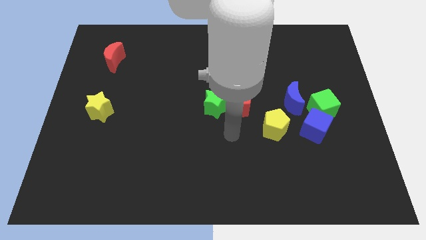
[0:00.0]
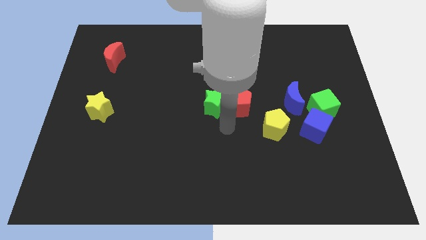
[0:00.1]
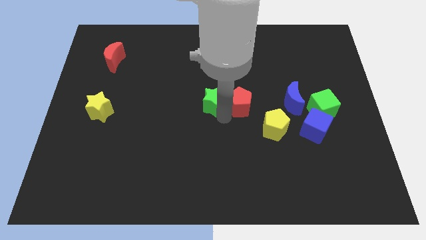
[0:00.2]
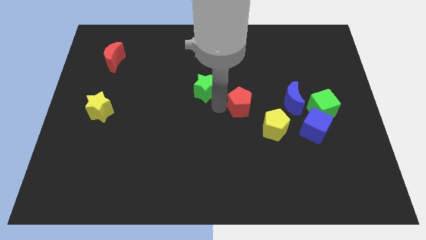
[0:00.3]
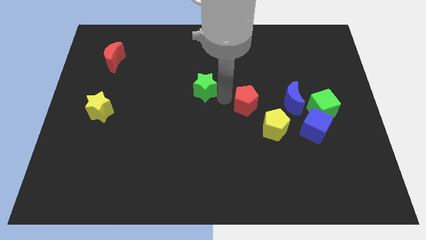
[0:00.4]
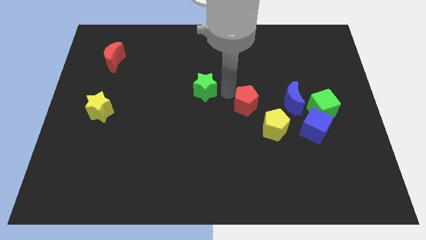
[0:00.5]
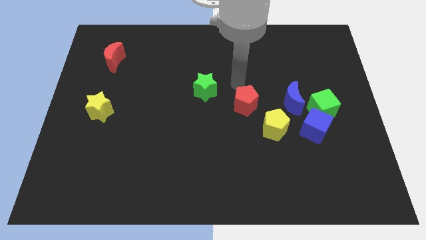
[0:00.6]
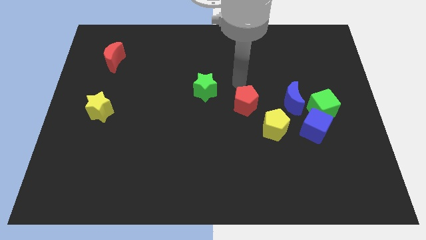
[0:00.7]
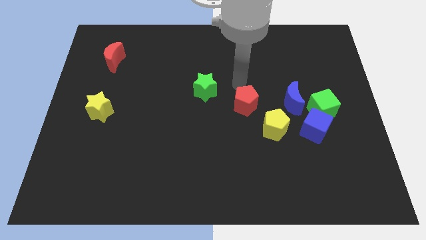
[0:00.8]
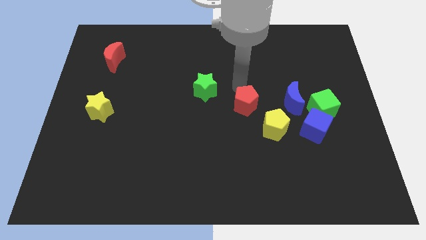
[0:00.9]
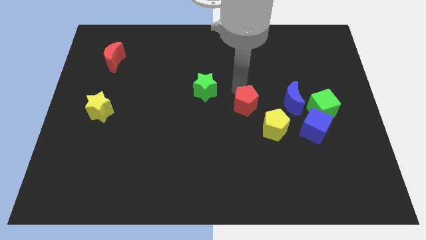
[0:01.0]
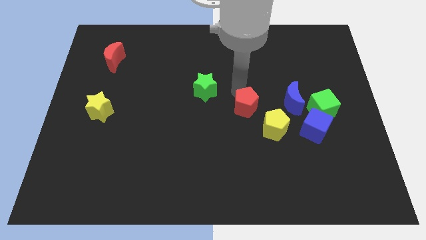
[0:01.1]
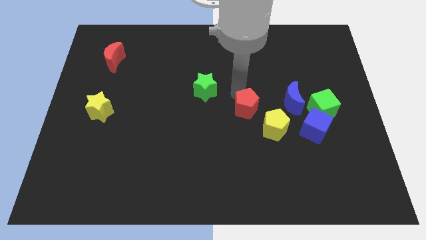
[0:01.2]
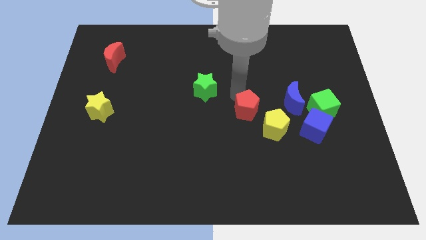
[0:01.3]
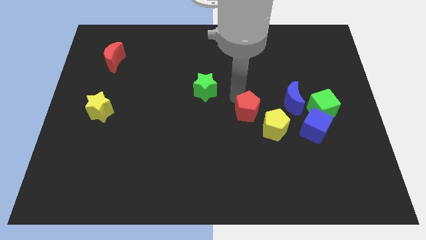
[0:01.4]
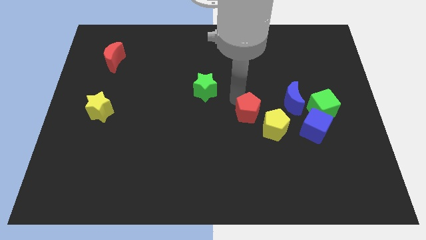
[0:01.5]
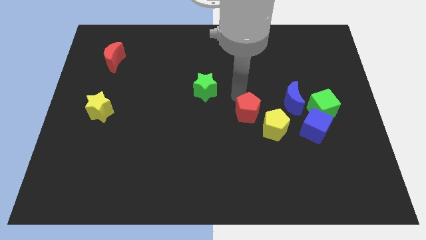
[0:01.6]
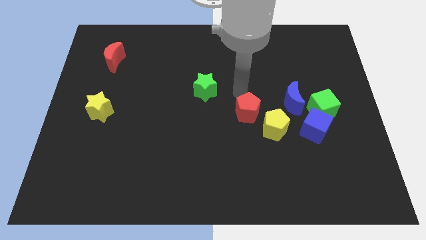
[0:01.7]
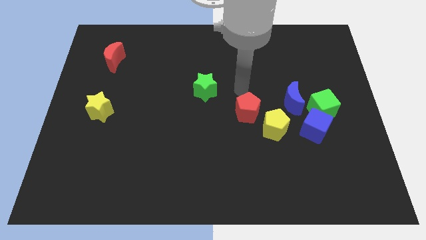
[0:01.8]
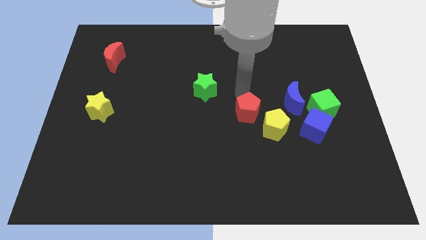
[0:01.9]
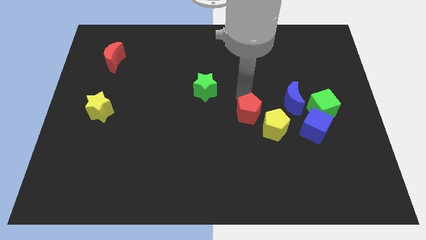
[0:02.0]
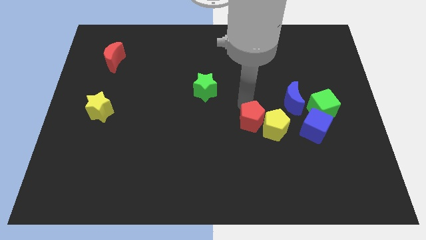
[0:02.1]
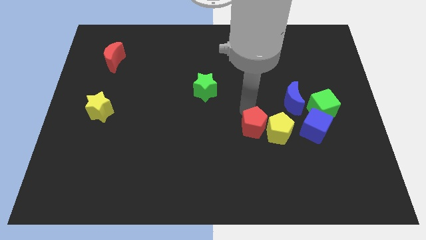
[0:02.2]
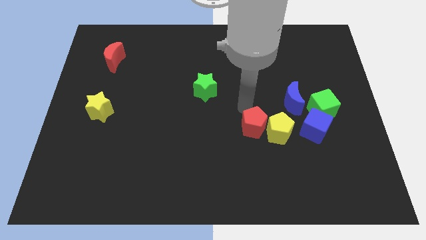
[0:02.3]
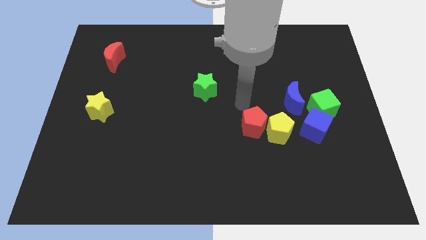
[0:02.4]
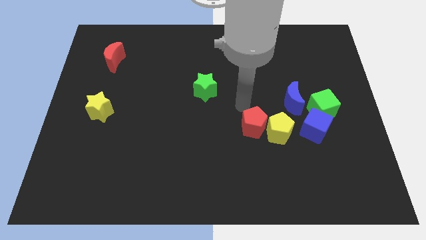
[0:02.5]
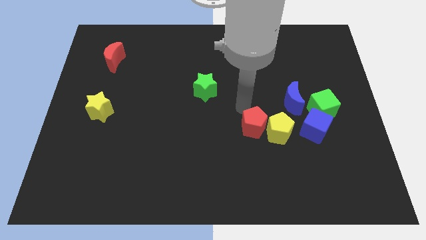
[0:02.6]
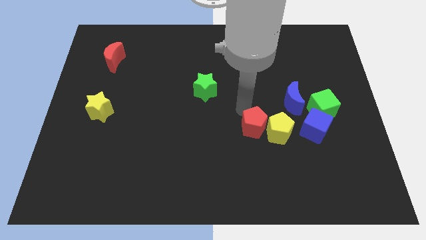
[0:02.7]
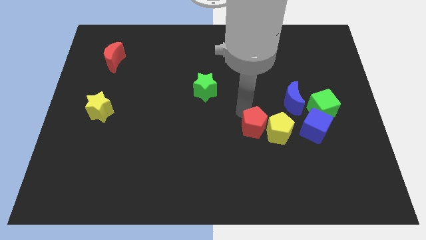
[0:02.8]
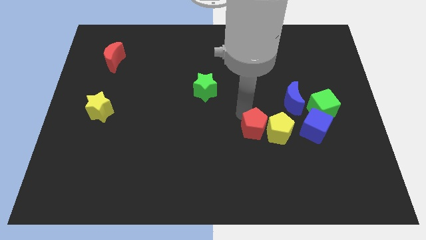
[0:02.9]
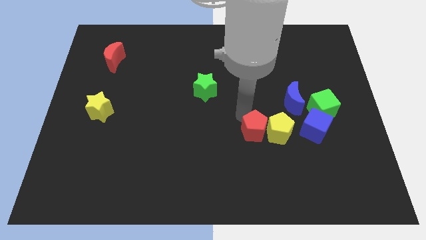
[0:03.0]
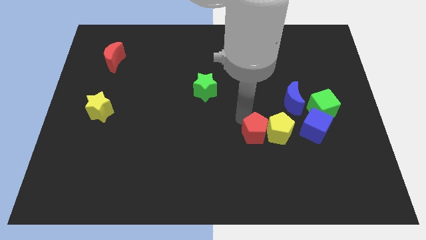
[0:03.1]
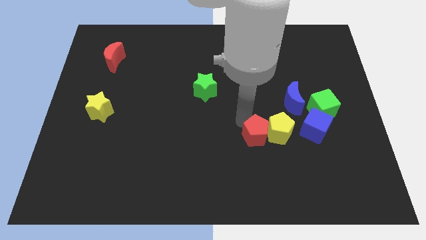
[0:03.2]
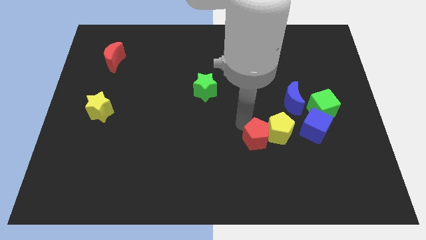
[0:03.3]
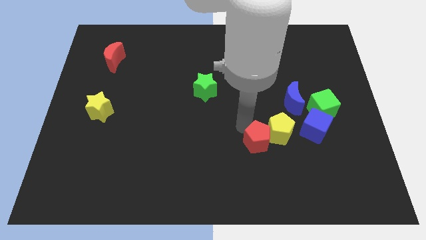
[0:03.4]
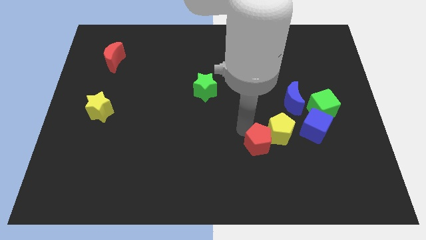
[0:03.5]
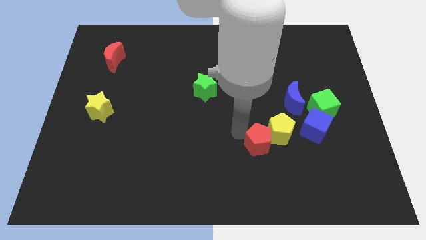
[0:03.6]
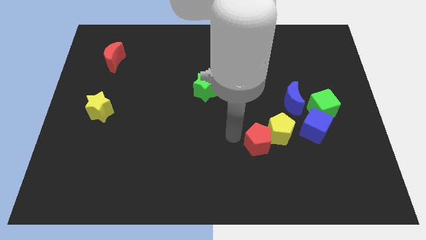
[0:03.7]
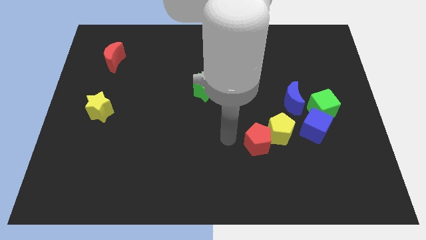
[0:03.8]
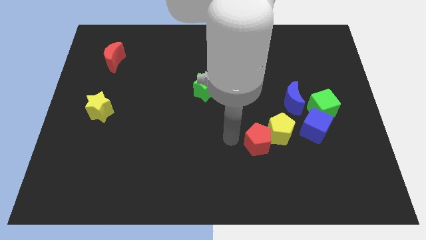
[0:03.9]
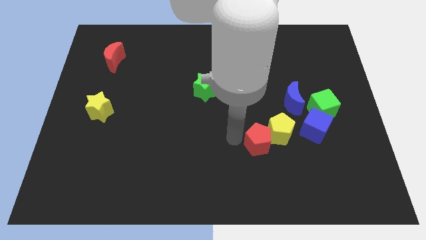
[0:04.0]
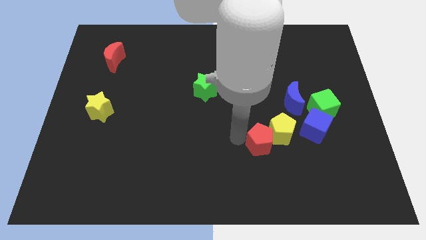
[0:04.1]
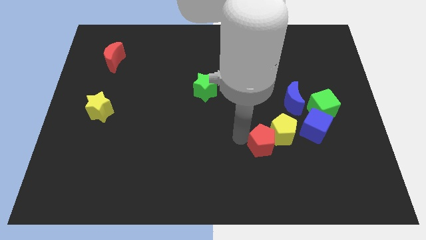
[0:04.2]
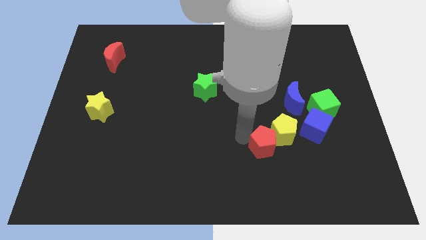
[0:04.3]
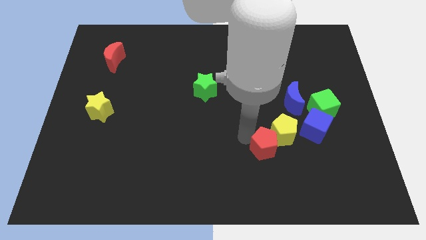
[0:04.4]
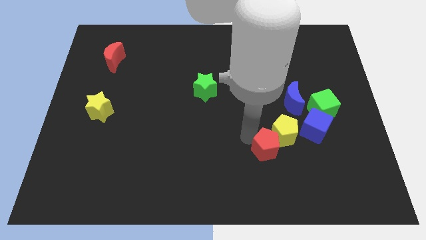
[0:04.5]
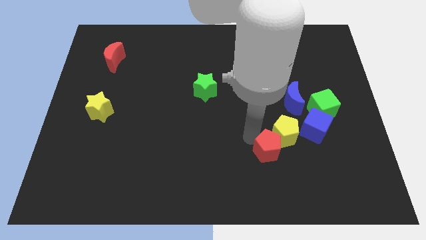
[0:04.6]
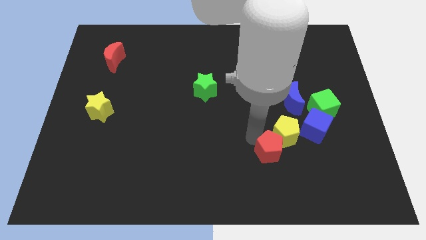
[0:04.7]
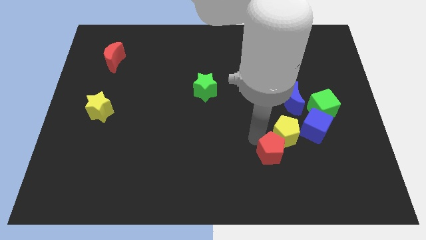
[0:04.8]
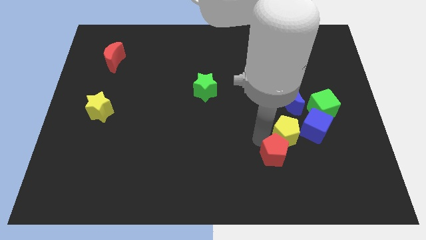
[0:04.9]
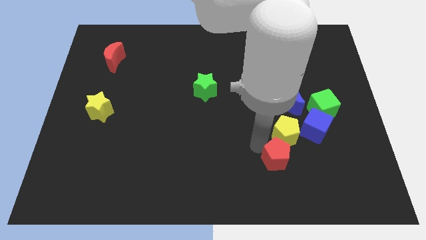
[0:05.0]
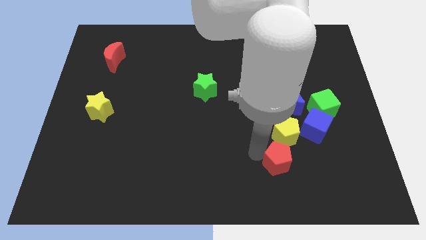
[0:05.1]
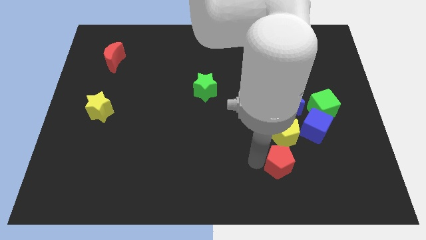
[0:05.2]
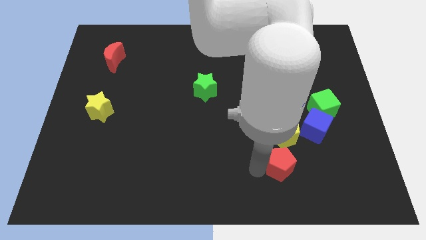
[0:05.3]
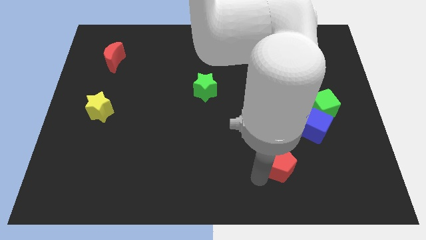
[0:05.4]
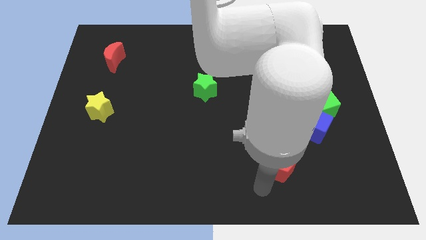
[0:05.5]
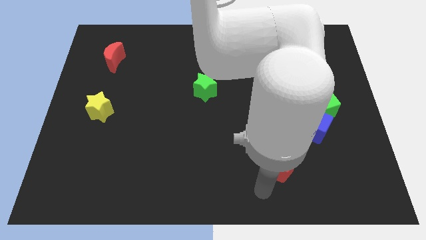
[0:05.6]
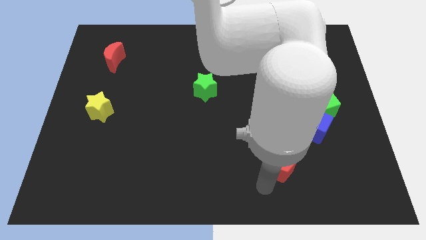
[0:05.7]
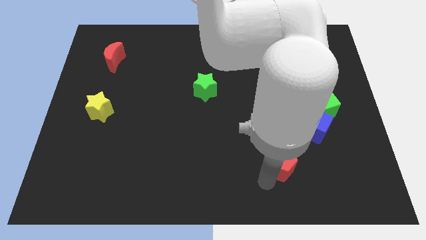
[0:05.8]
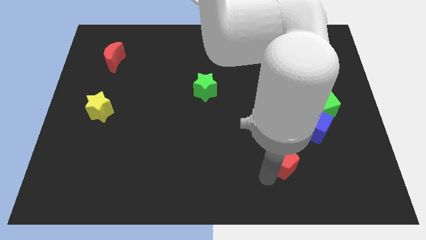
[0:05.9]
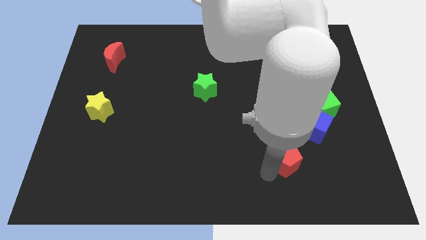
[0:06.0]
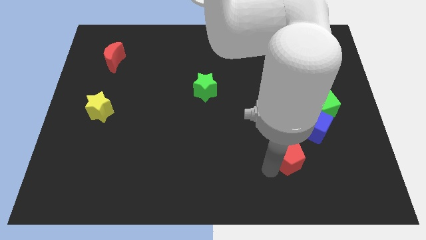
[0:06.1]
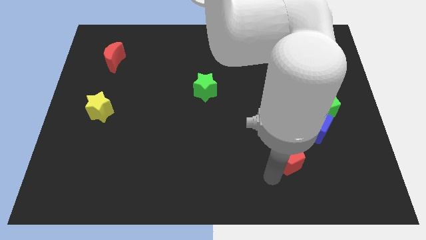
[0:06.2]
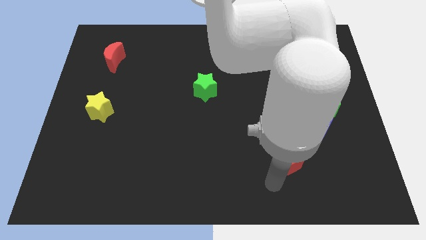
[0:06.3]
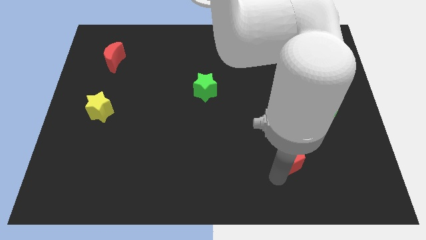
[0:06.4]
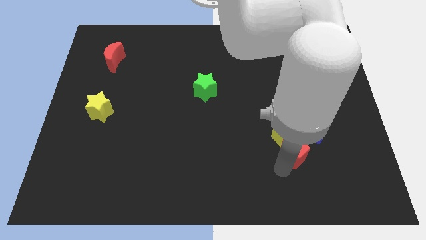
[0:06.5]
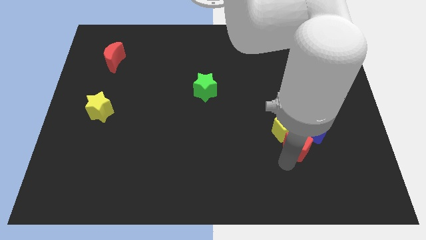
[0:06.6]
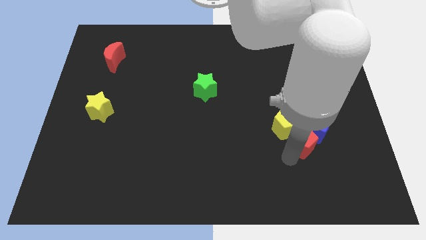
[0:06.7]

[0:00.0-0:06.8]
push the red pentagon next to the blue cube
